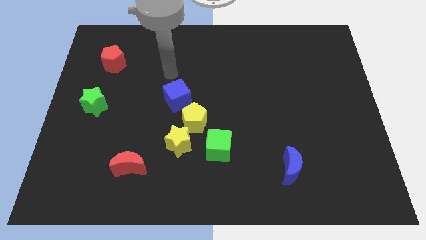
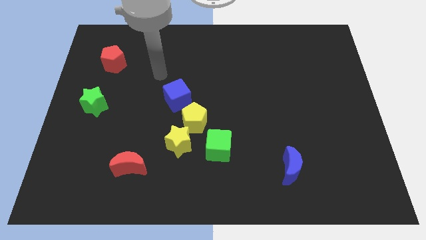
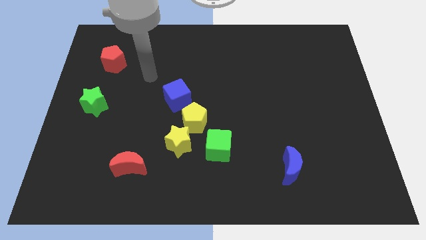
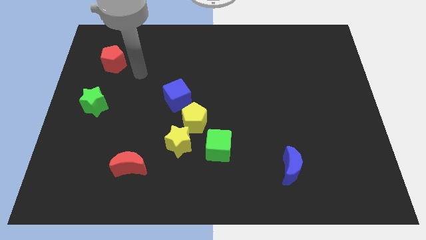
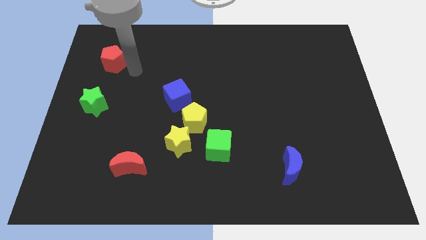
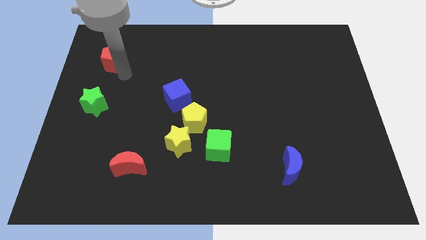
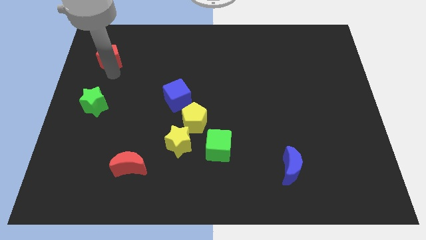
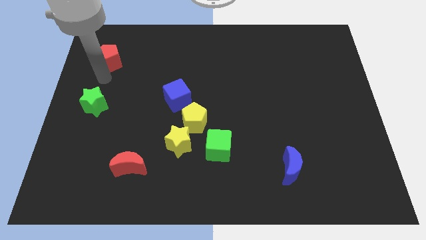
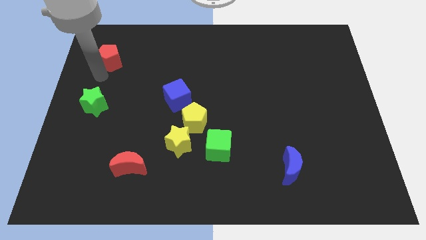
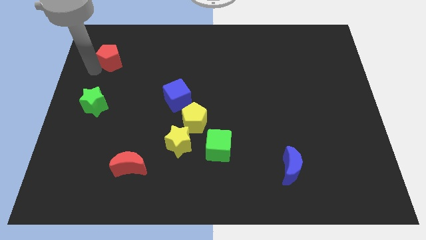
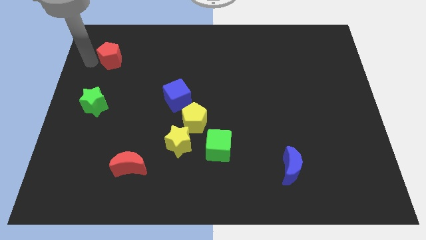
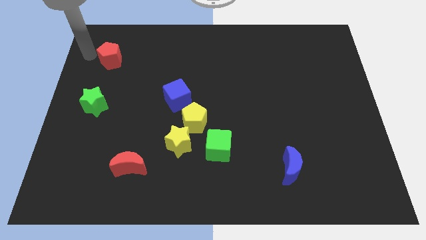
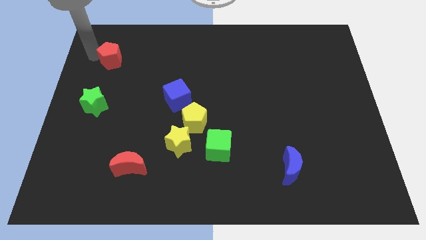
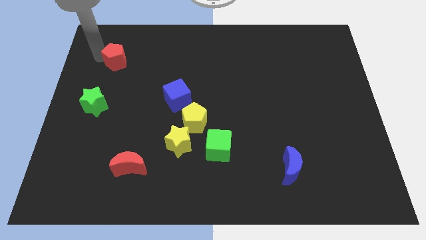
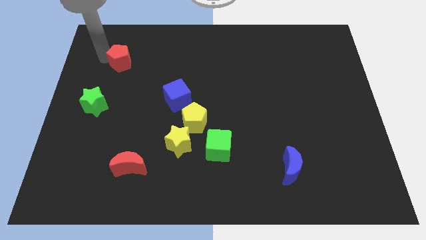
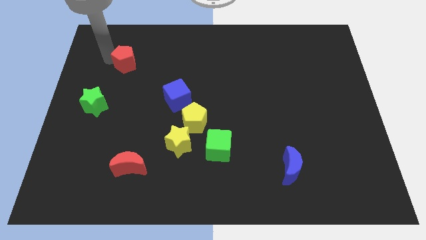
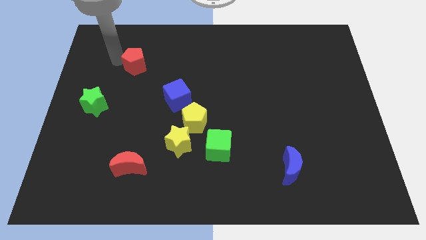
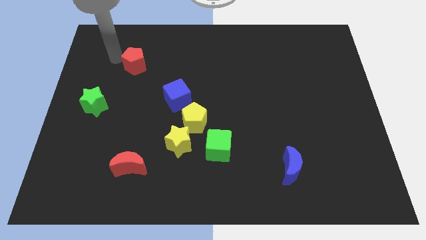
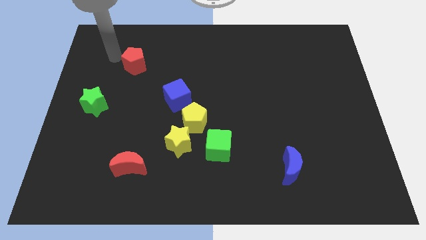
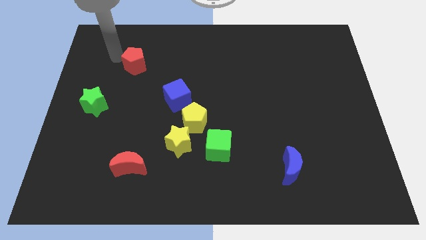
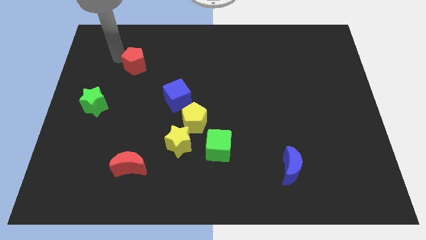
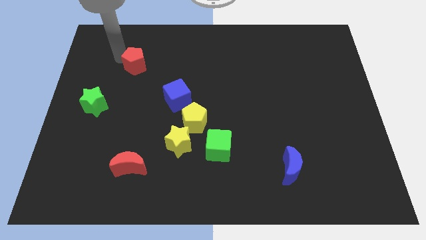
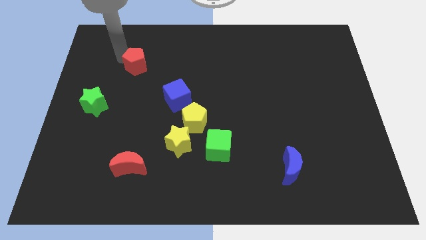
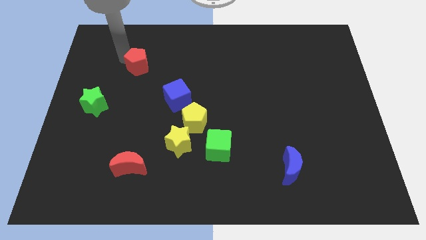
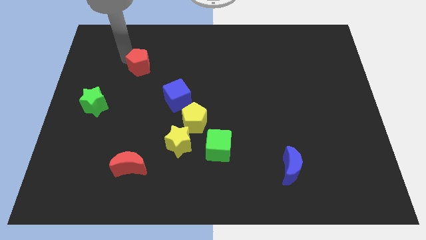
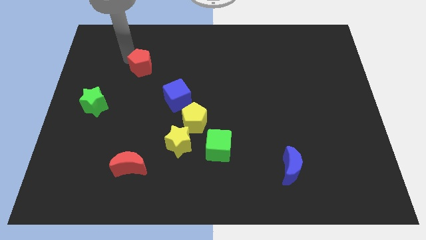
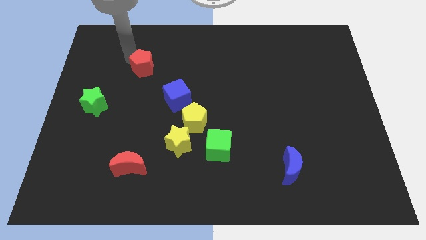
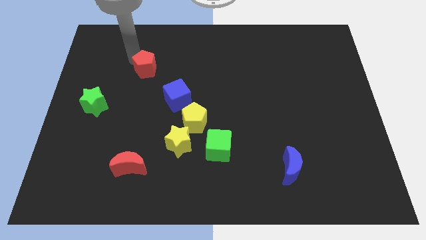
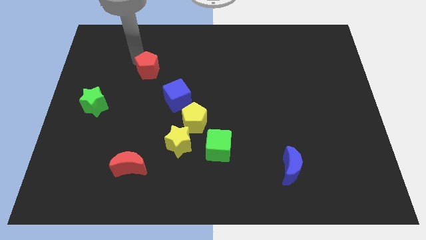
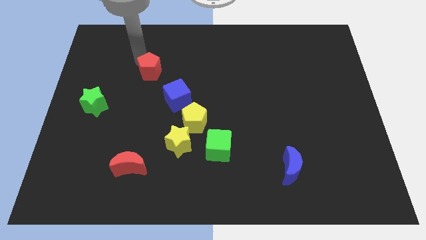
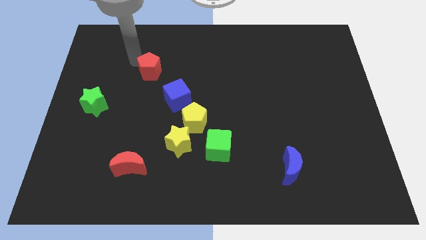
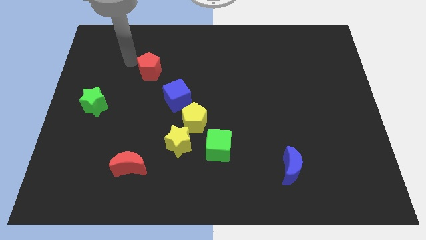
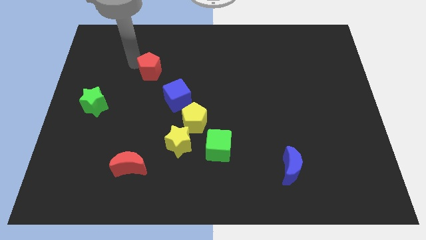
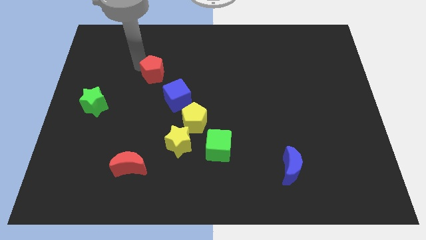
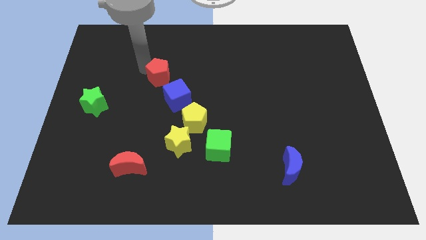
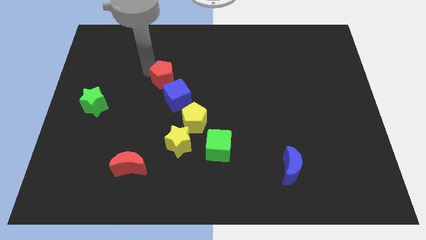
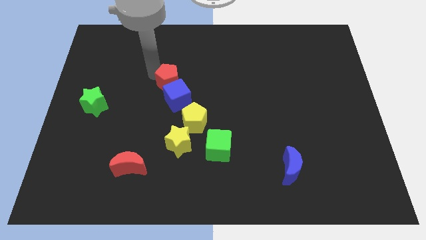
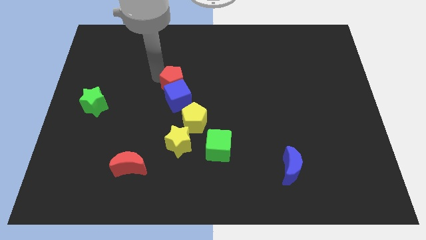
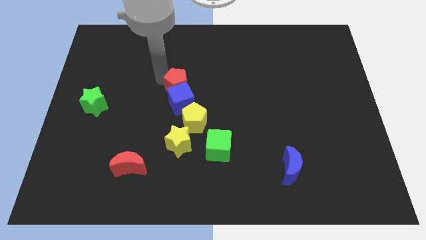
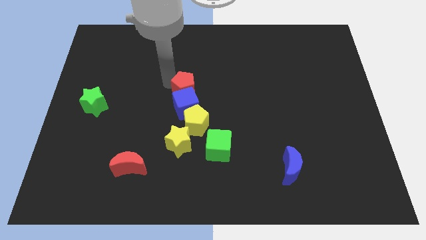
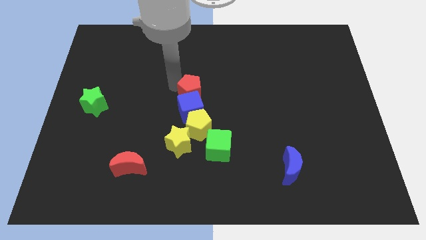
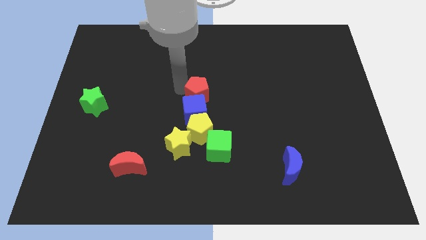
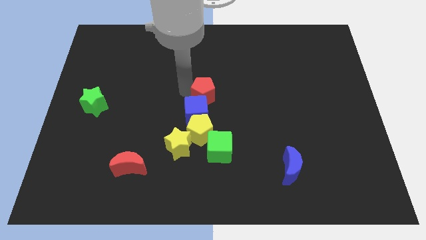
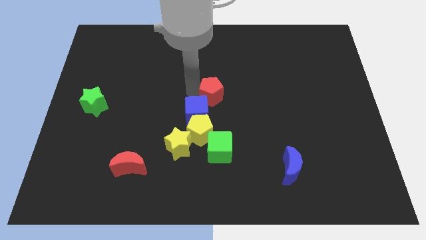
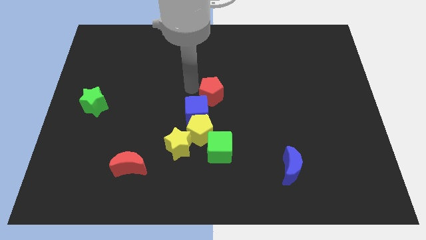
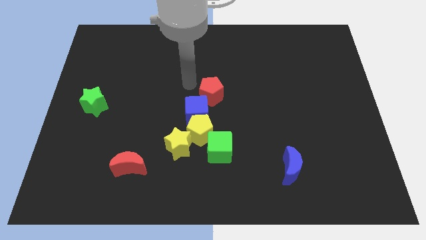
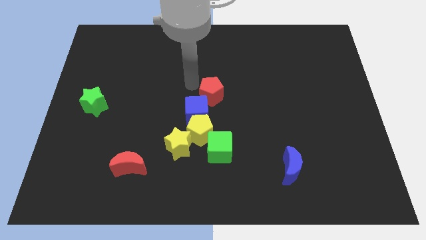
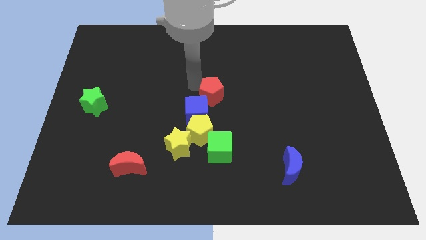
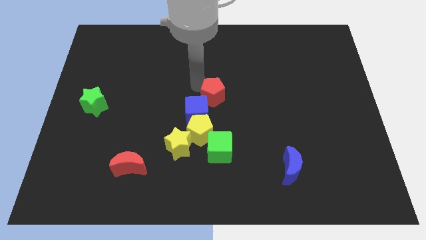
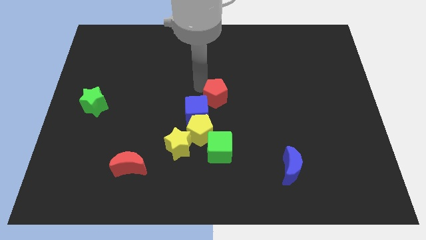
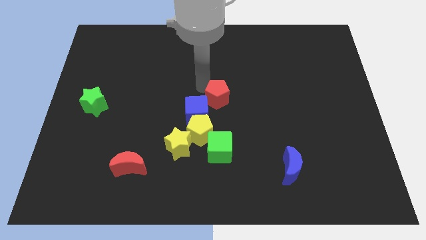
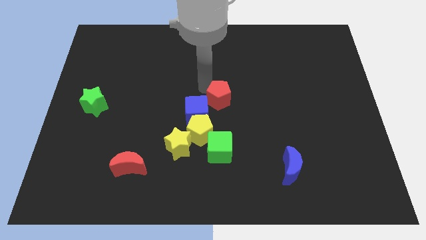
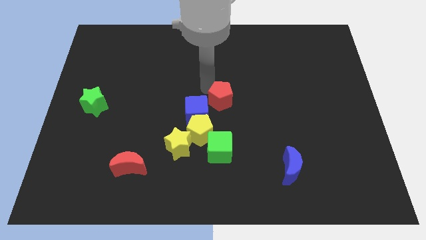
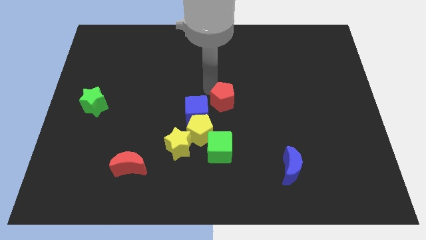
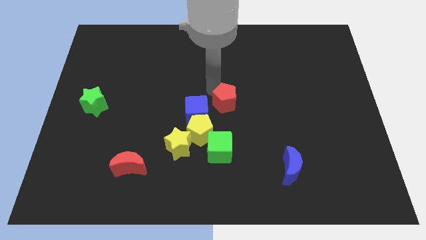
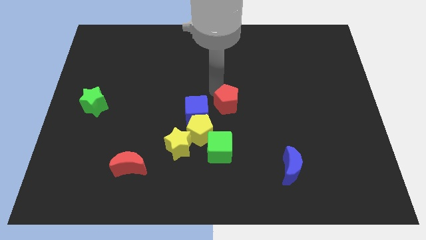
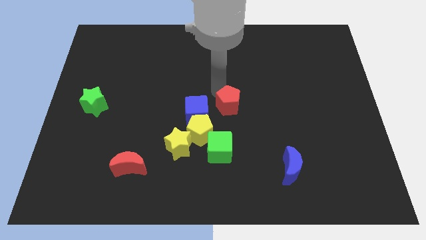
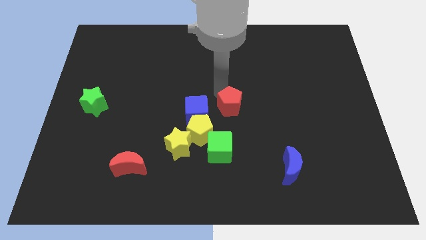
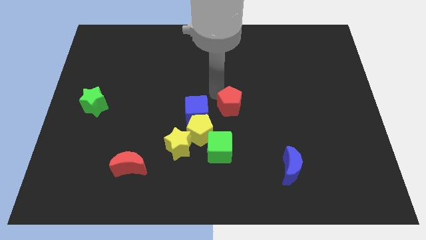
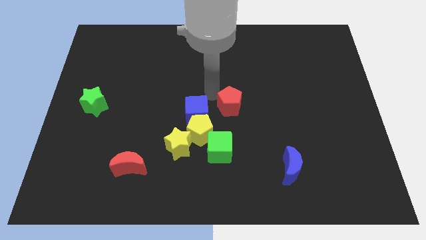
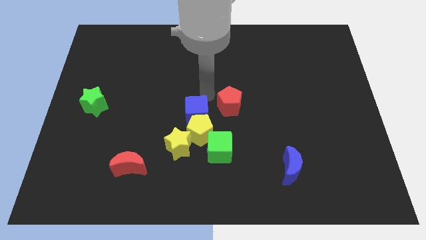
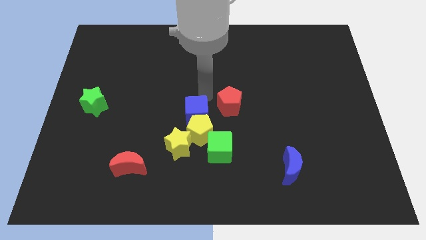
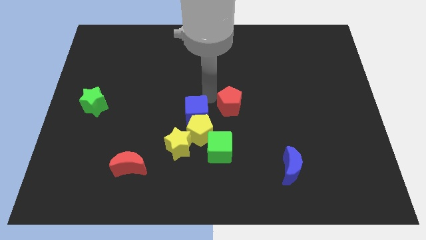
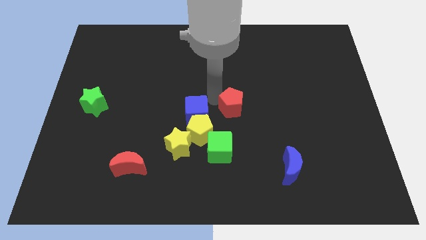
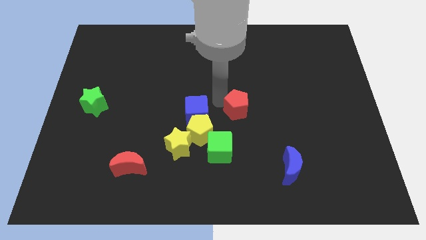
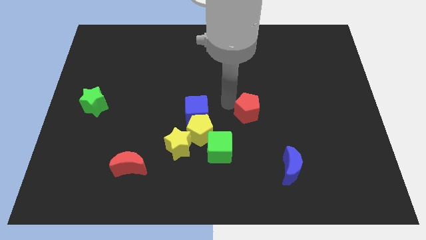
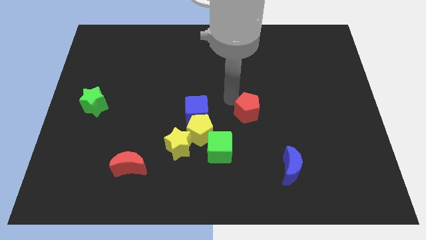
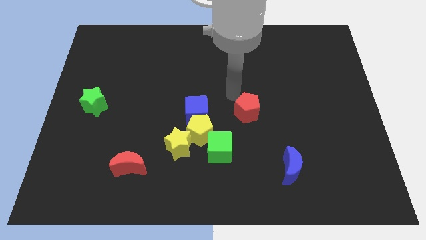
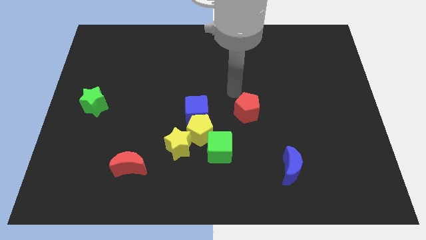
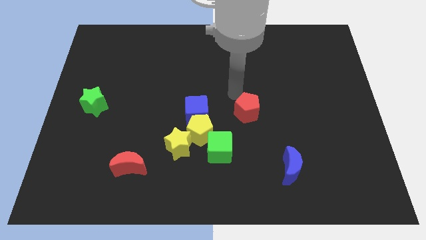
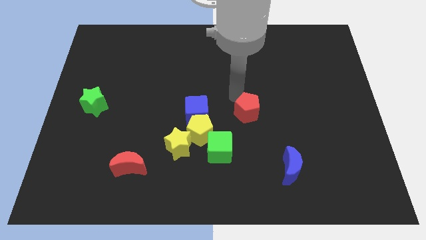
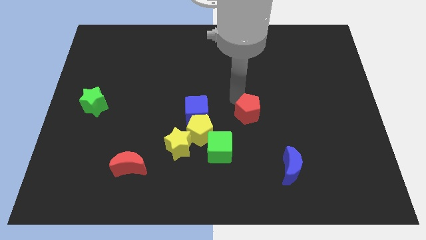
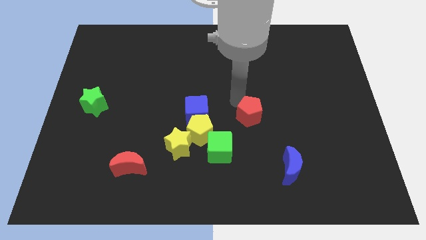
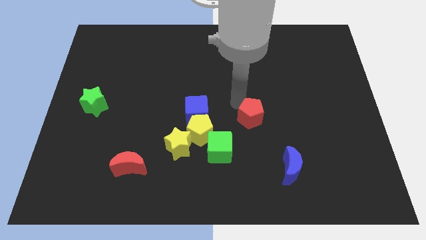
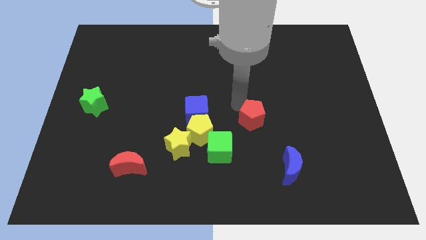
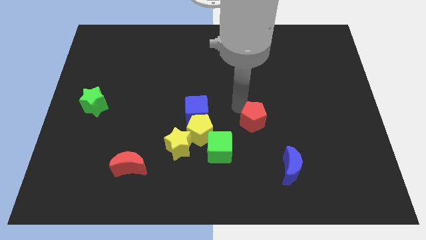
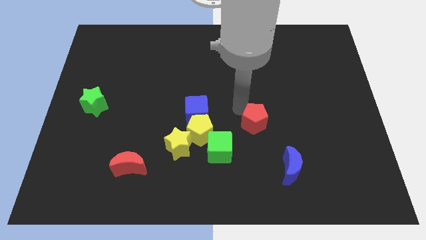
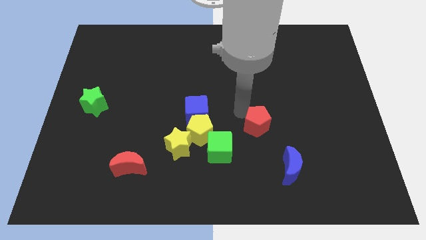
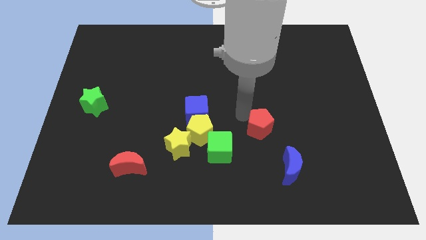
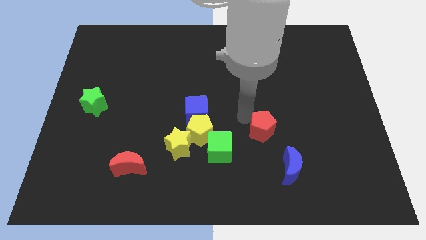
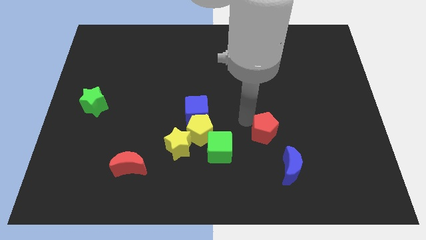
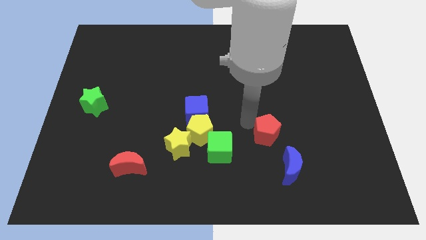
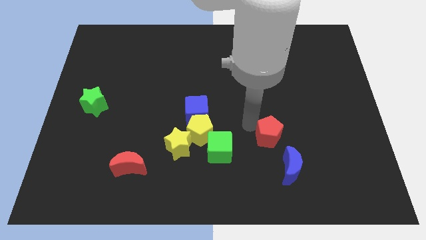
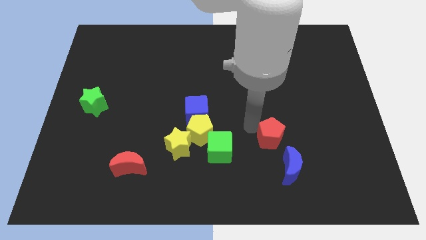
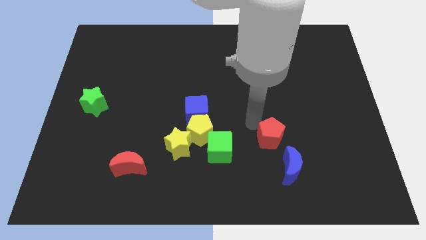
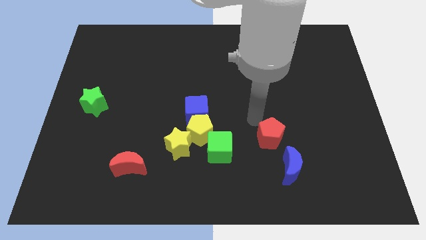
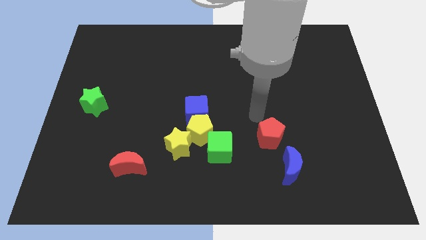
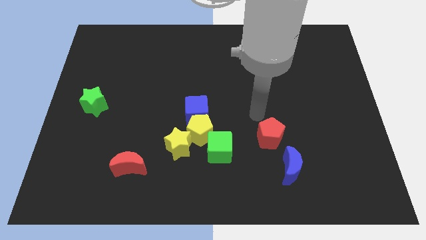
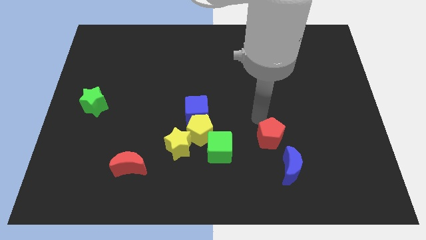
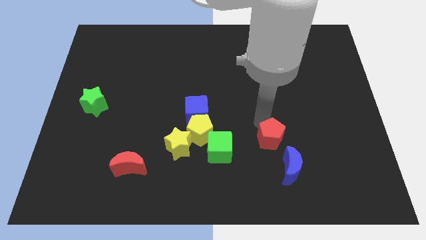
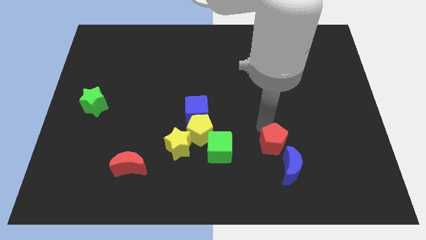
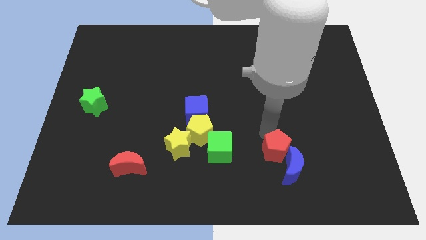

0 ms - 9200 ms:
push the red pentagon to the blue moon
